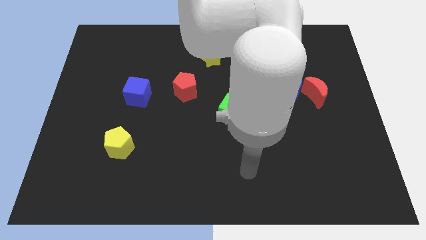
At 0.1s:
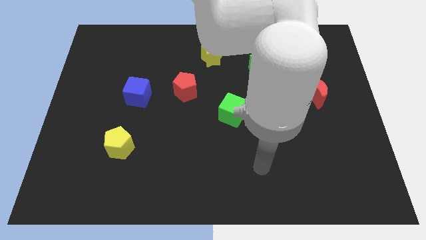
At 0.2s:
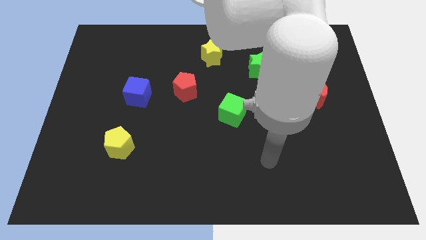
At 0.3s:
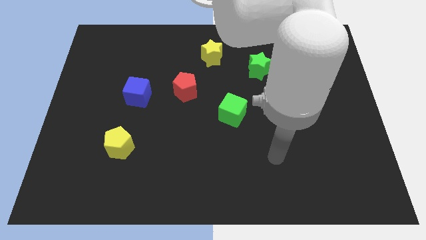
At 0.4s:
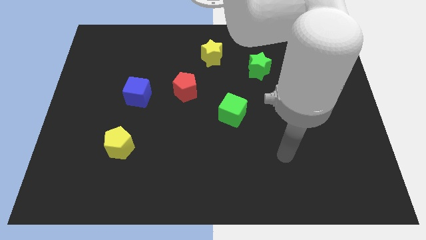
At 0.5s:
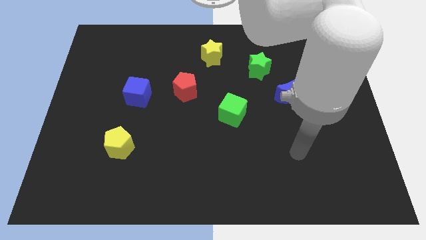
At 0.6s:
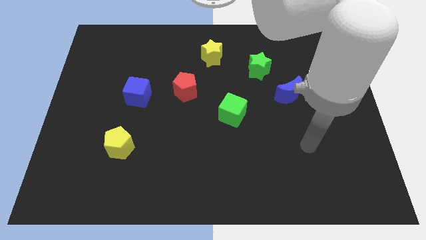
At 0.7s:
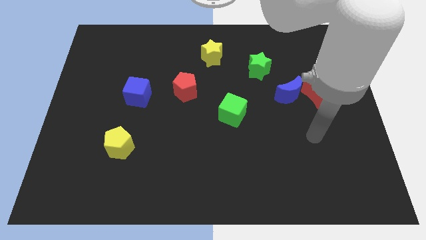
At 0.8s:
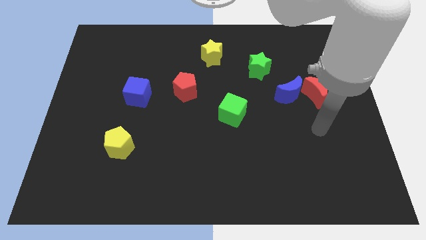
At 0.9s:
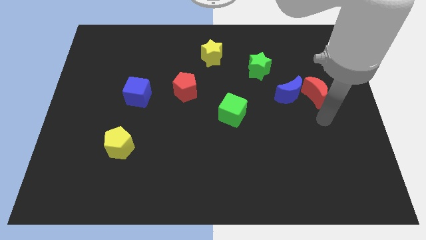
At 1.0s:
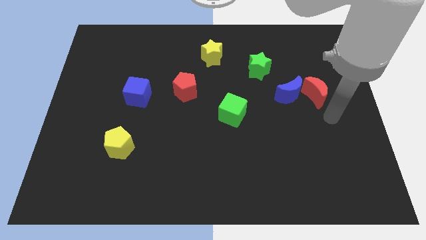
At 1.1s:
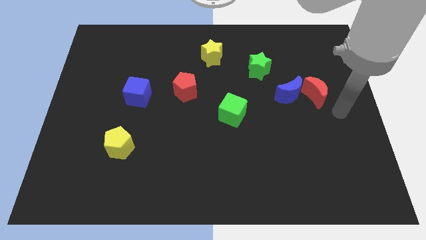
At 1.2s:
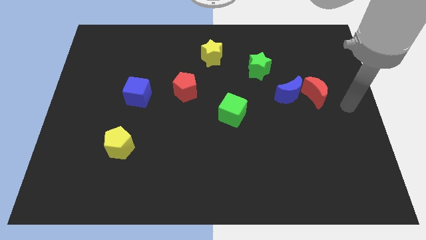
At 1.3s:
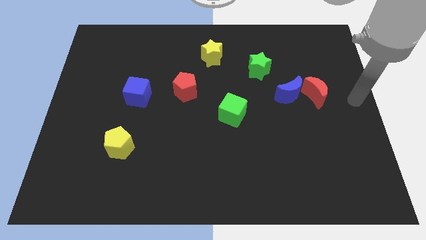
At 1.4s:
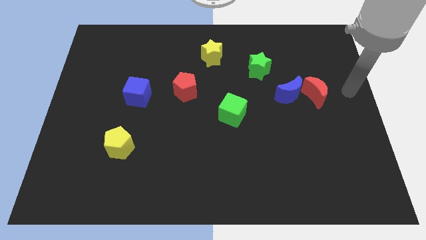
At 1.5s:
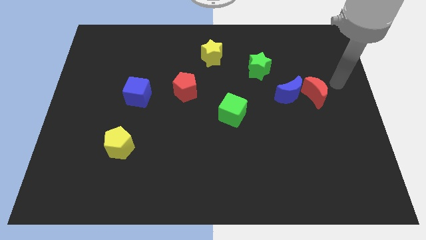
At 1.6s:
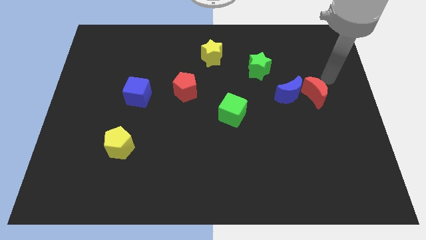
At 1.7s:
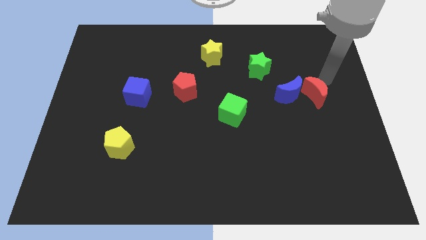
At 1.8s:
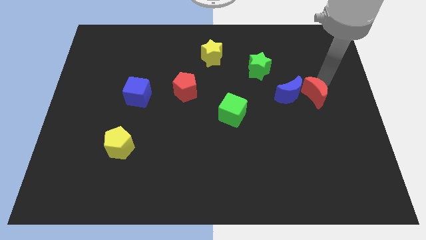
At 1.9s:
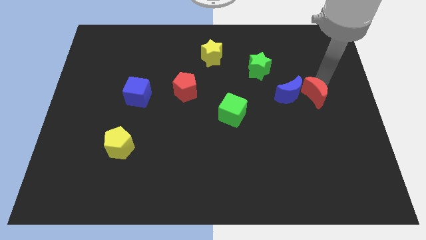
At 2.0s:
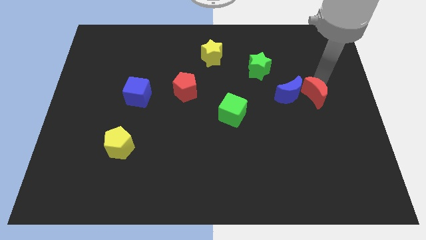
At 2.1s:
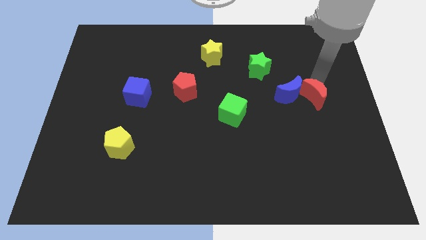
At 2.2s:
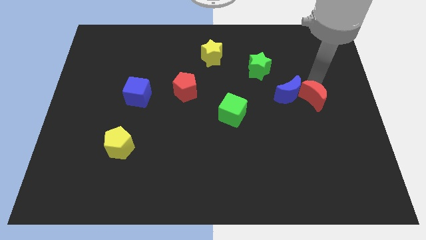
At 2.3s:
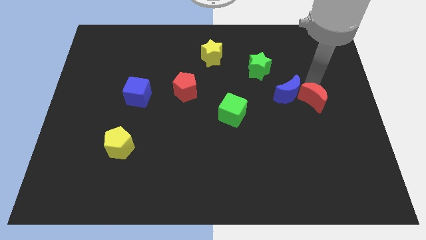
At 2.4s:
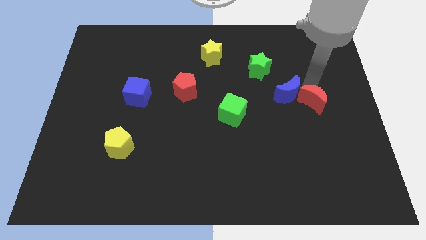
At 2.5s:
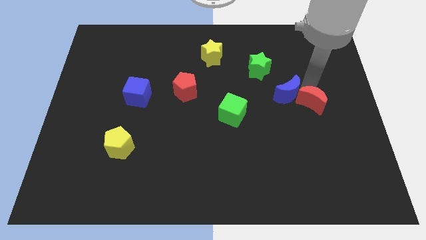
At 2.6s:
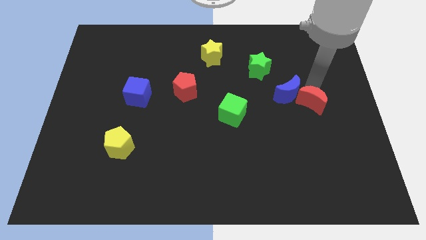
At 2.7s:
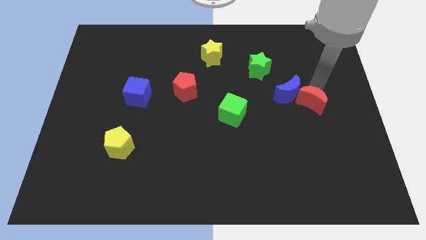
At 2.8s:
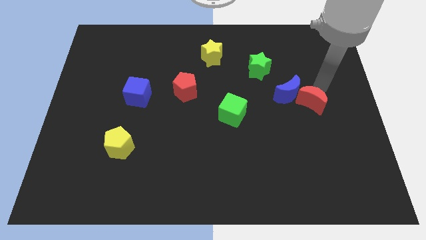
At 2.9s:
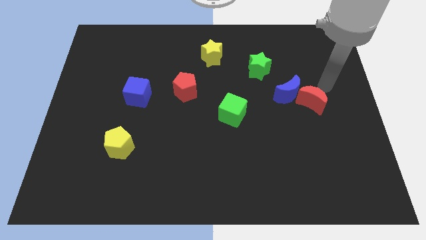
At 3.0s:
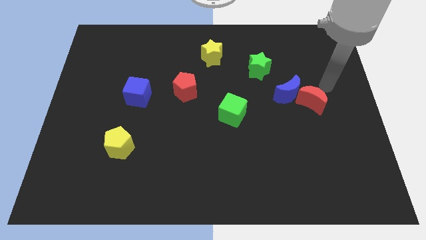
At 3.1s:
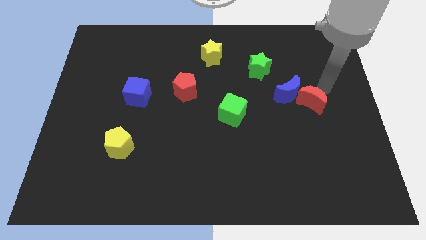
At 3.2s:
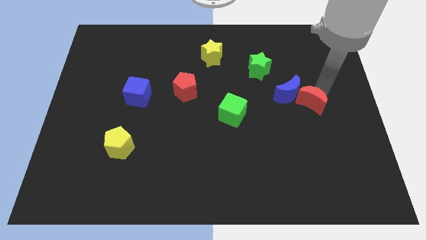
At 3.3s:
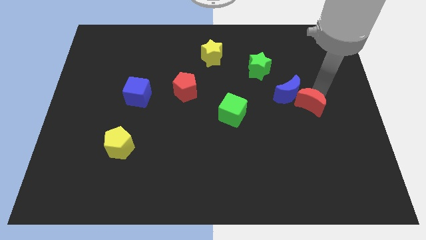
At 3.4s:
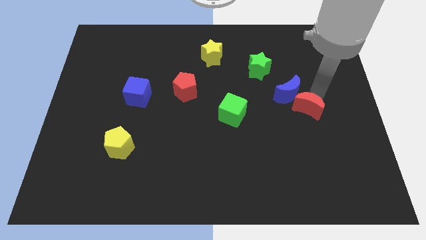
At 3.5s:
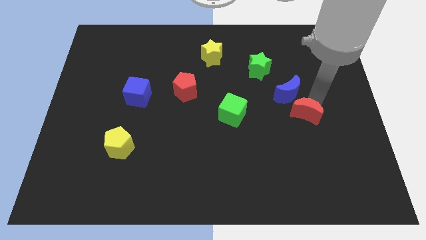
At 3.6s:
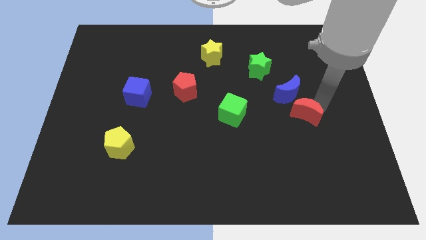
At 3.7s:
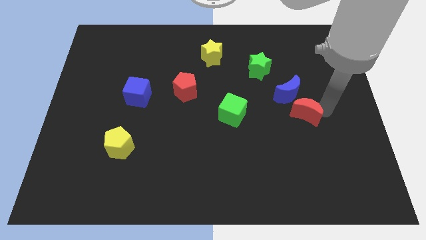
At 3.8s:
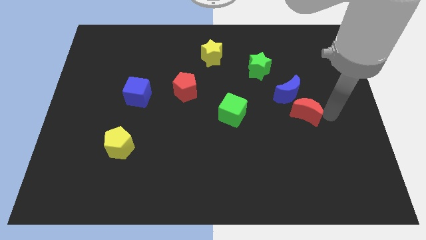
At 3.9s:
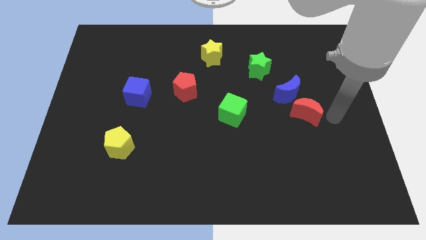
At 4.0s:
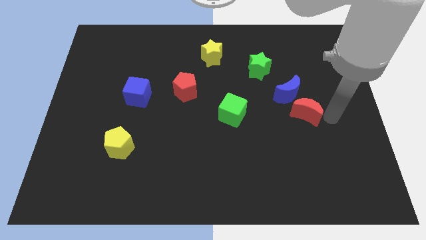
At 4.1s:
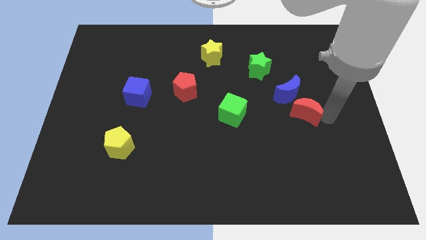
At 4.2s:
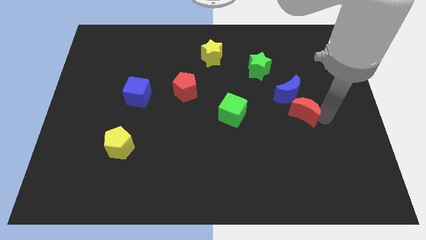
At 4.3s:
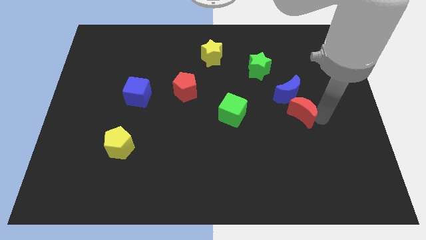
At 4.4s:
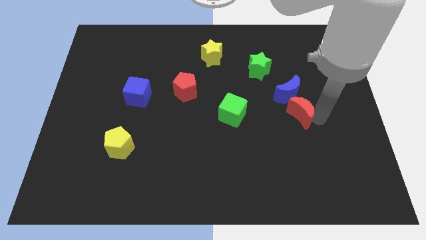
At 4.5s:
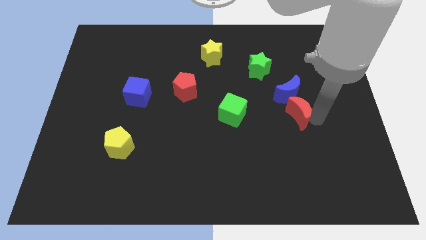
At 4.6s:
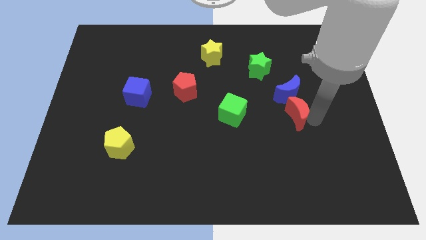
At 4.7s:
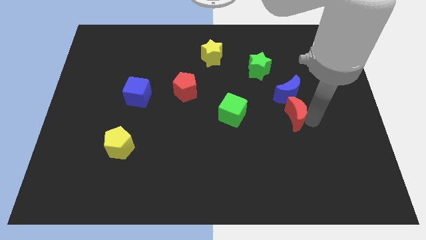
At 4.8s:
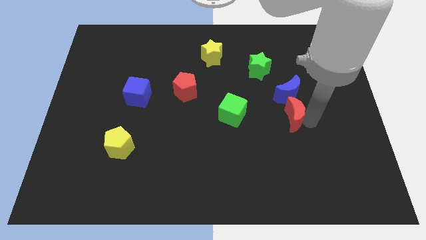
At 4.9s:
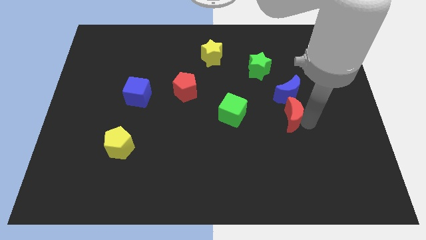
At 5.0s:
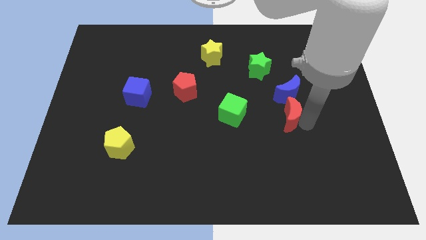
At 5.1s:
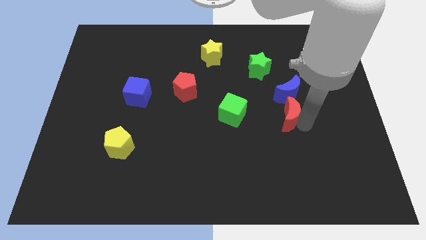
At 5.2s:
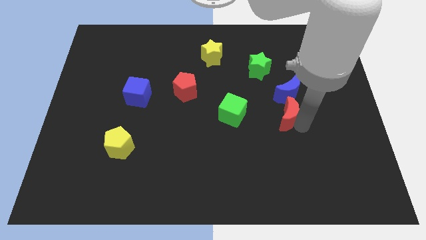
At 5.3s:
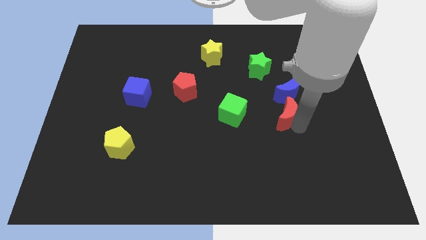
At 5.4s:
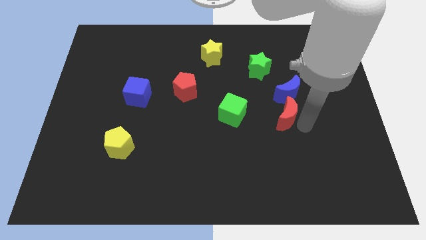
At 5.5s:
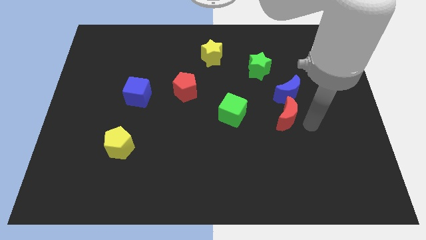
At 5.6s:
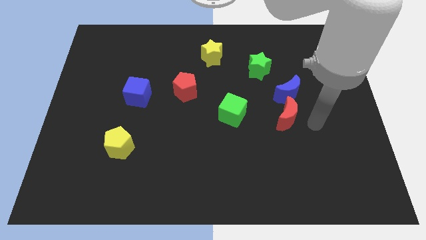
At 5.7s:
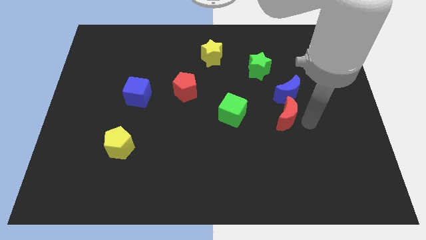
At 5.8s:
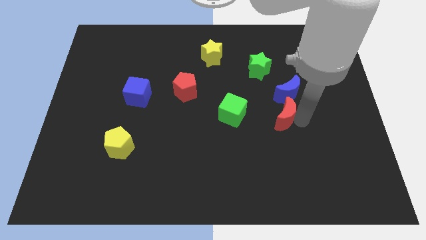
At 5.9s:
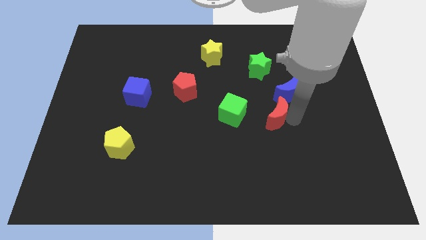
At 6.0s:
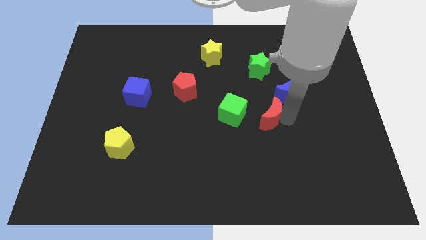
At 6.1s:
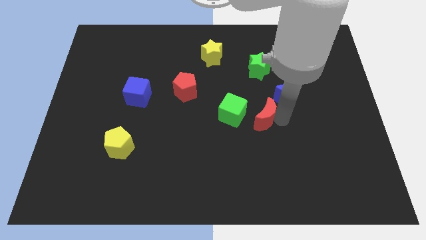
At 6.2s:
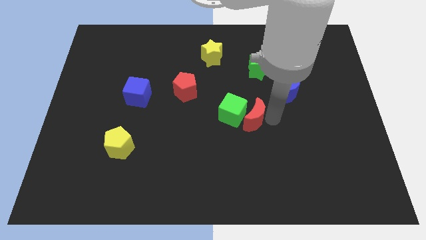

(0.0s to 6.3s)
put the red moon towards the green cube

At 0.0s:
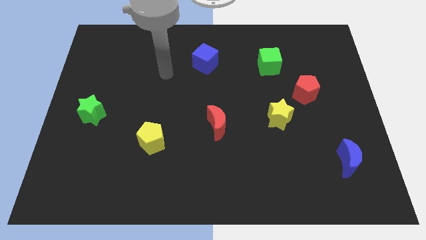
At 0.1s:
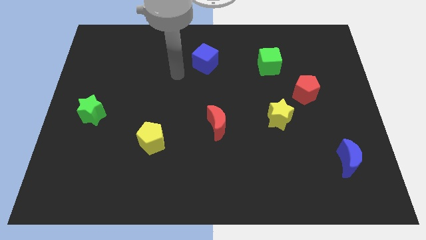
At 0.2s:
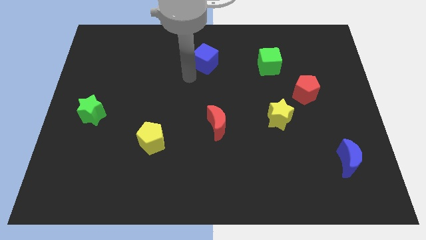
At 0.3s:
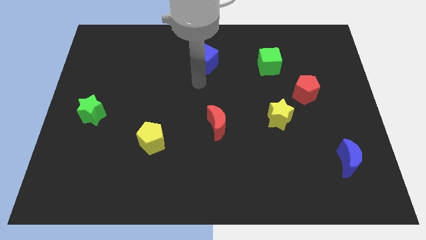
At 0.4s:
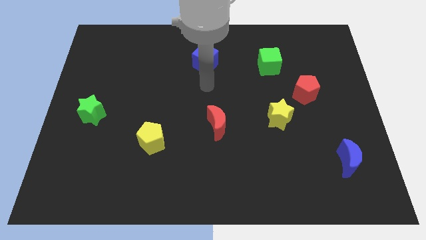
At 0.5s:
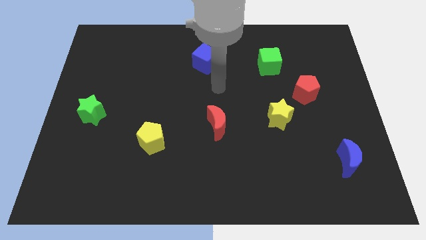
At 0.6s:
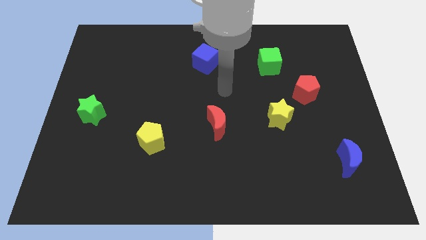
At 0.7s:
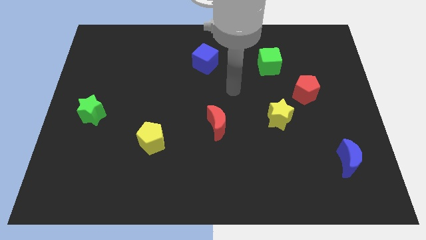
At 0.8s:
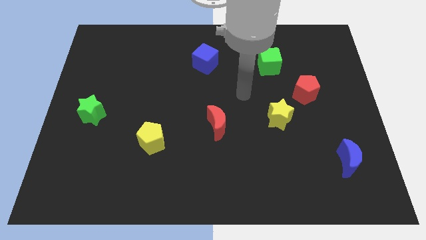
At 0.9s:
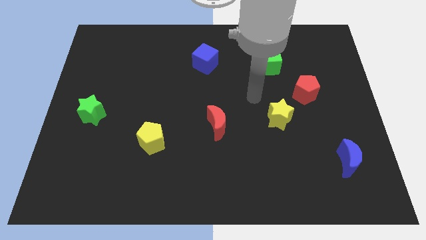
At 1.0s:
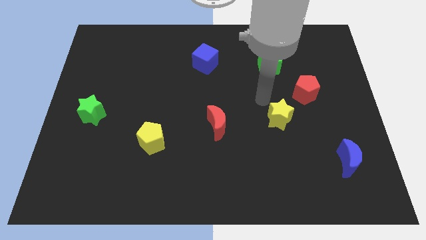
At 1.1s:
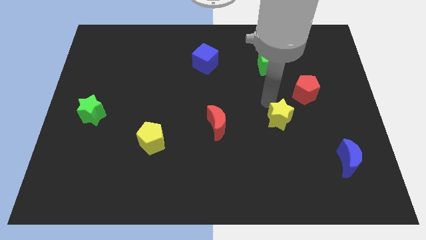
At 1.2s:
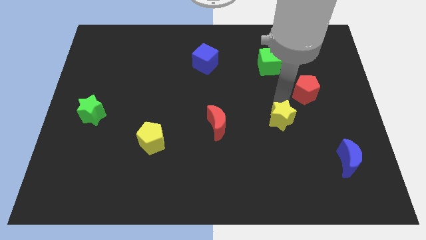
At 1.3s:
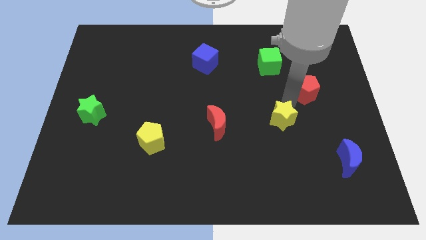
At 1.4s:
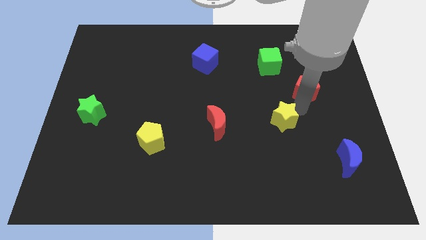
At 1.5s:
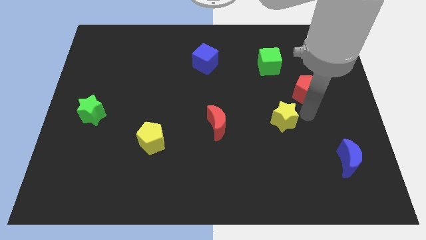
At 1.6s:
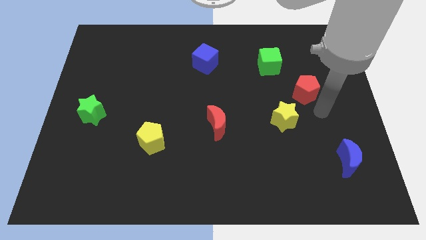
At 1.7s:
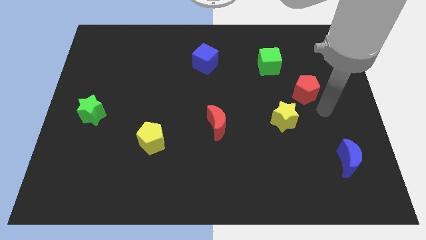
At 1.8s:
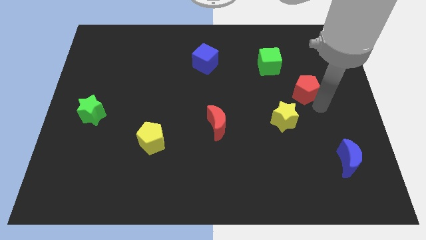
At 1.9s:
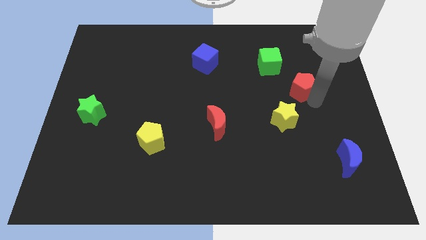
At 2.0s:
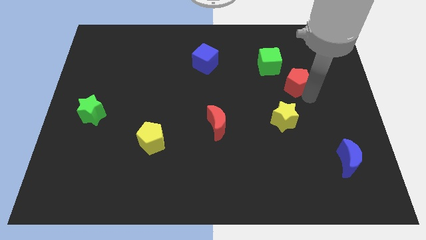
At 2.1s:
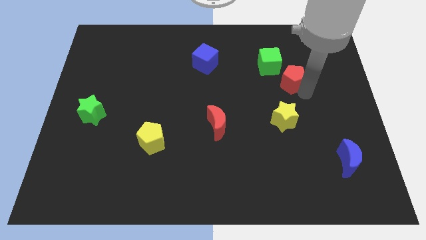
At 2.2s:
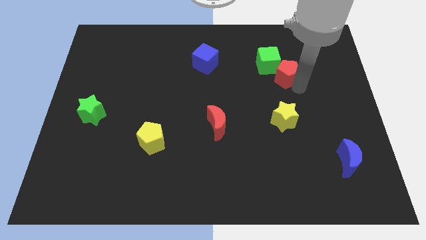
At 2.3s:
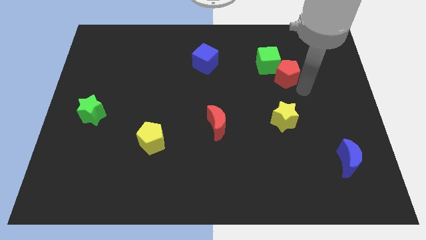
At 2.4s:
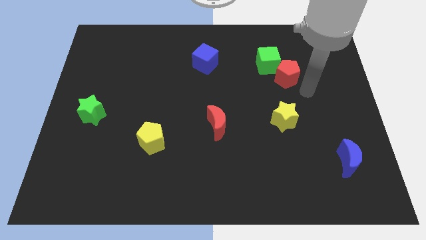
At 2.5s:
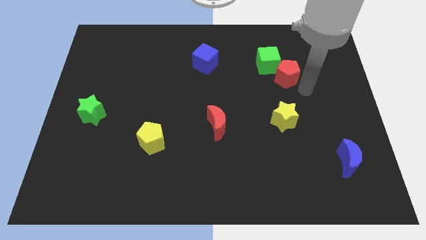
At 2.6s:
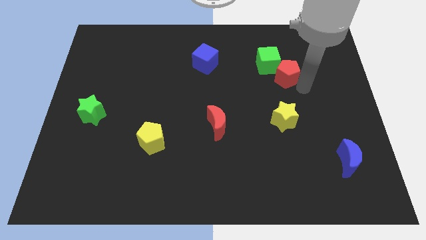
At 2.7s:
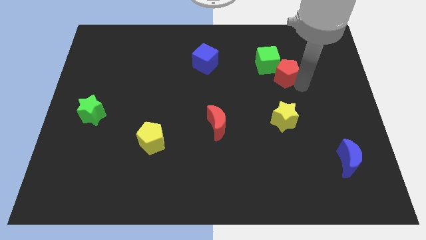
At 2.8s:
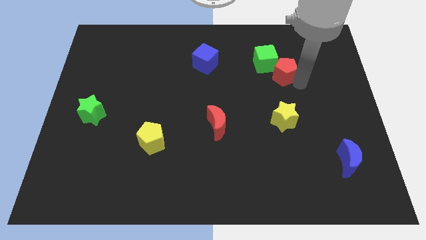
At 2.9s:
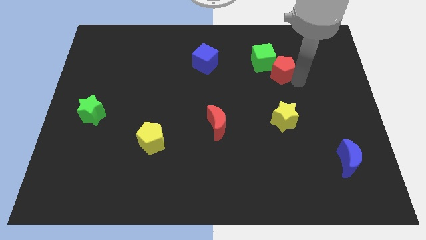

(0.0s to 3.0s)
slide the red pentagon towards the green cube
